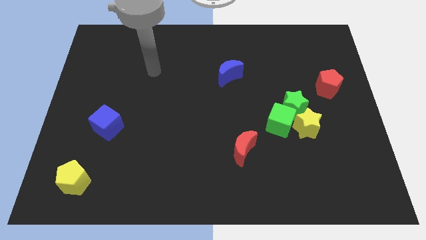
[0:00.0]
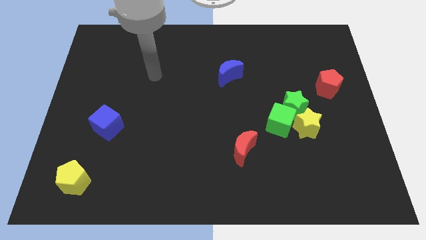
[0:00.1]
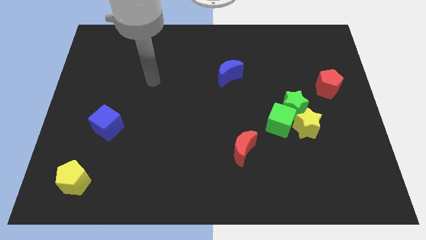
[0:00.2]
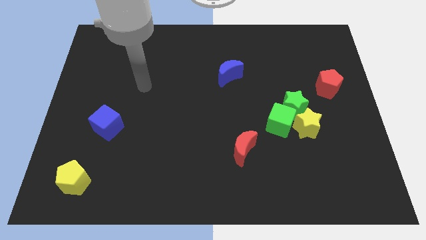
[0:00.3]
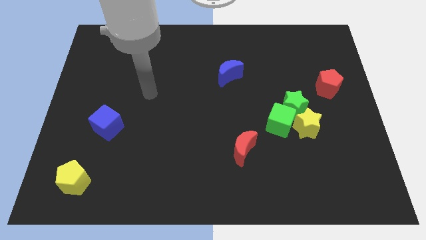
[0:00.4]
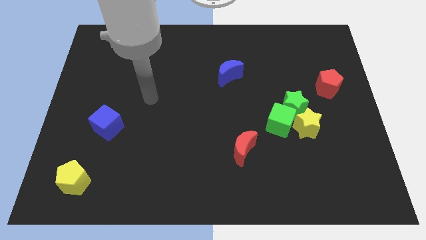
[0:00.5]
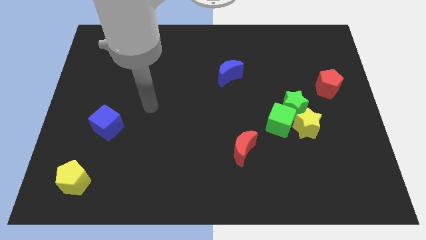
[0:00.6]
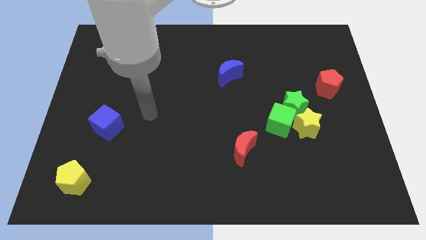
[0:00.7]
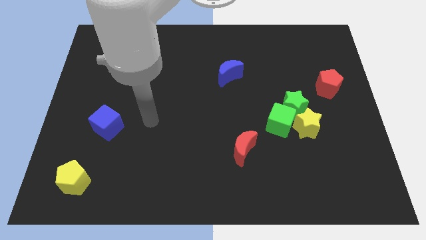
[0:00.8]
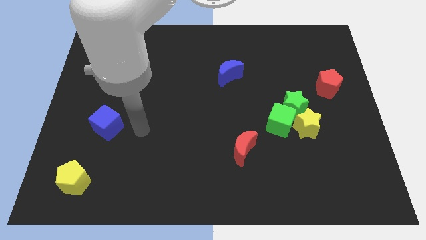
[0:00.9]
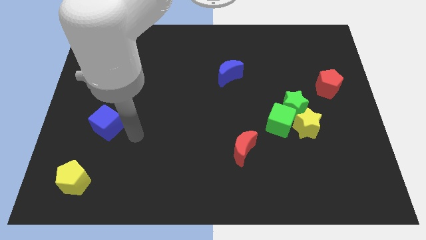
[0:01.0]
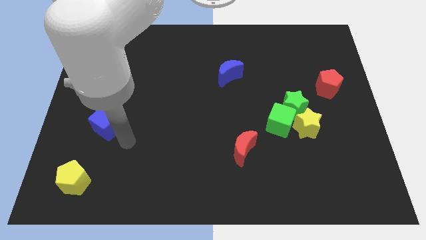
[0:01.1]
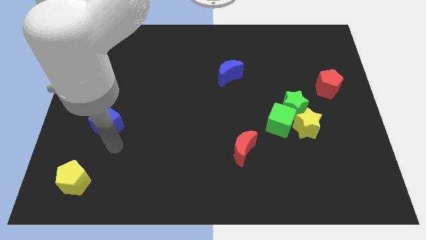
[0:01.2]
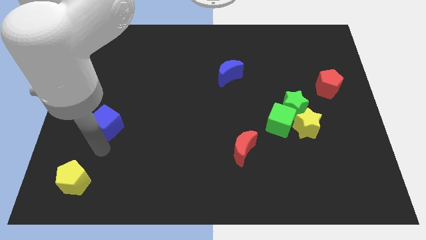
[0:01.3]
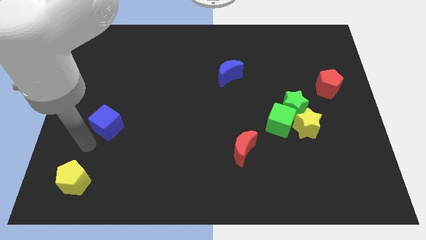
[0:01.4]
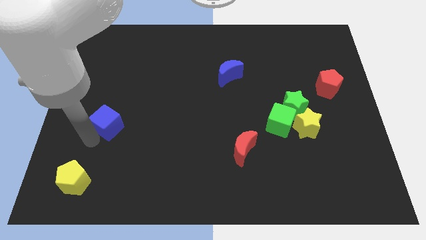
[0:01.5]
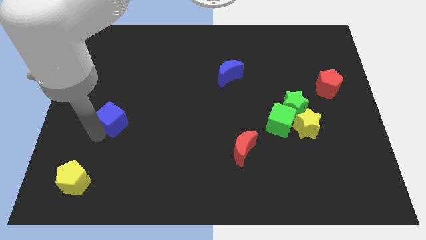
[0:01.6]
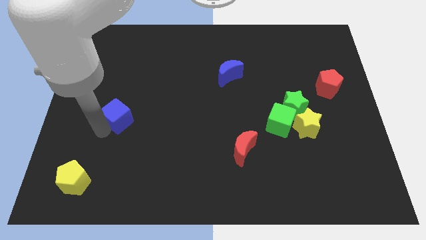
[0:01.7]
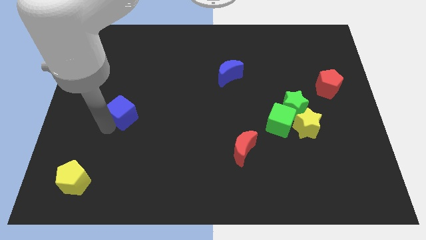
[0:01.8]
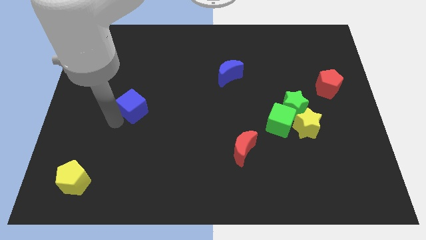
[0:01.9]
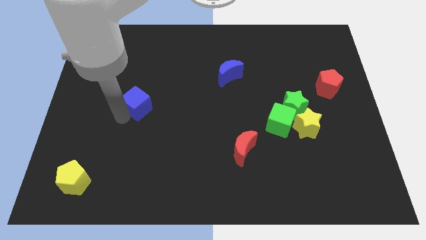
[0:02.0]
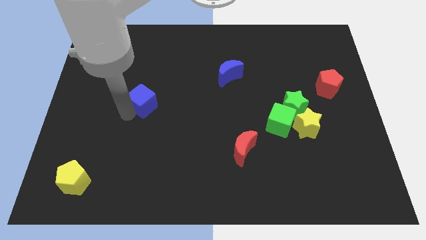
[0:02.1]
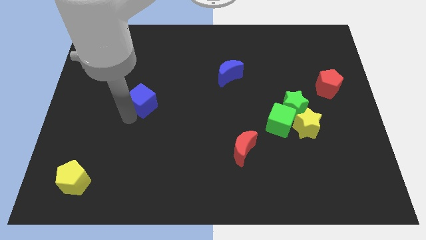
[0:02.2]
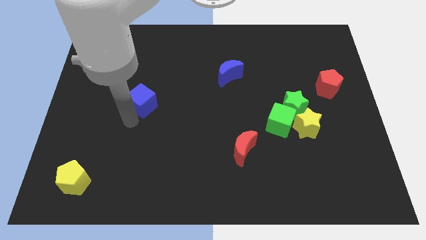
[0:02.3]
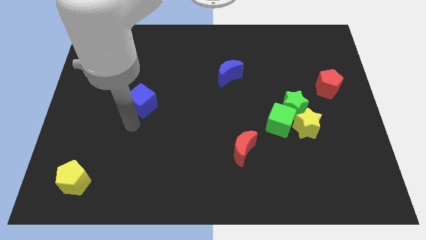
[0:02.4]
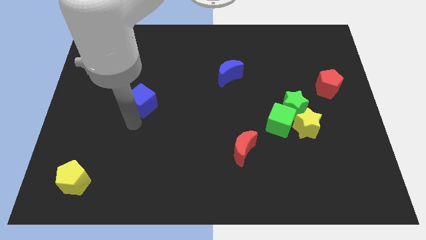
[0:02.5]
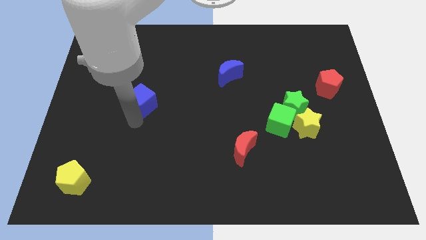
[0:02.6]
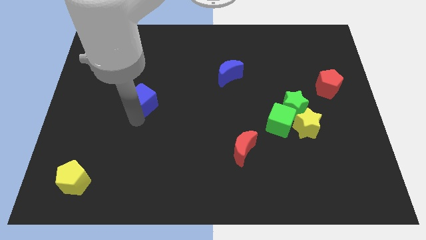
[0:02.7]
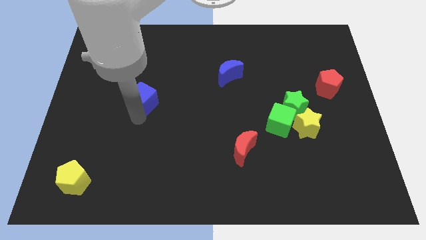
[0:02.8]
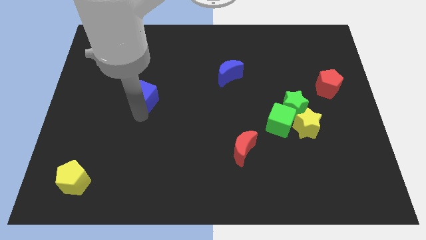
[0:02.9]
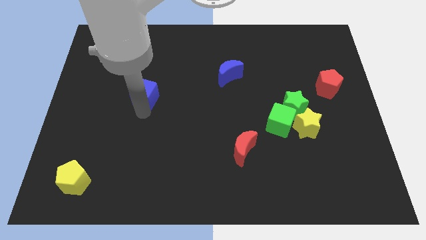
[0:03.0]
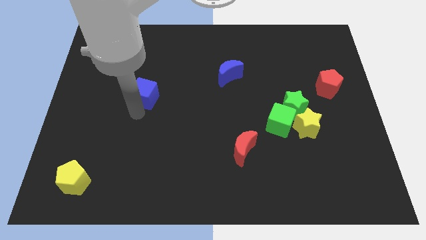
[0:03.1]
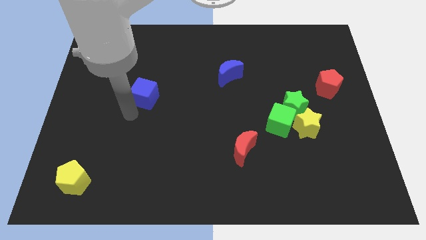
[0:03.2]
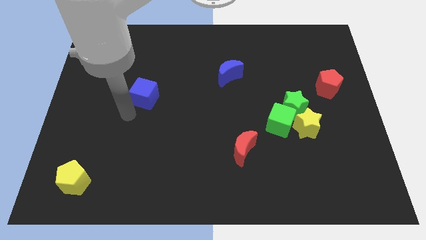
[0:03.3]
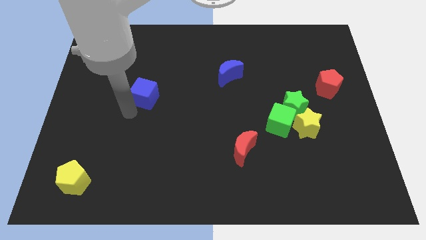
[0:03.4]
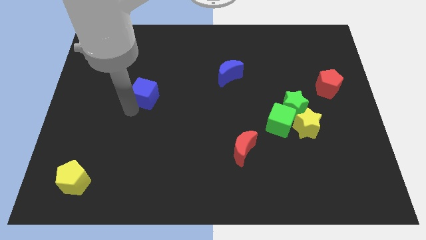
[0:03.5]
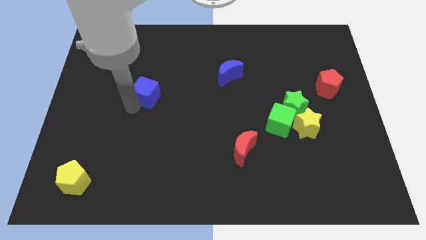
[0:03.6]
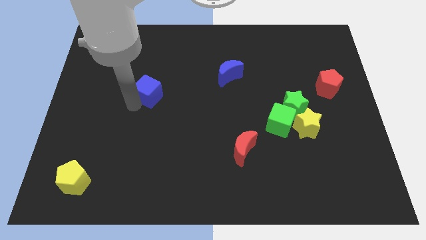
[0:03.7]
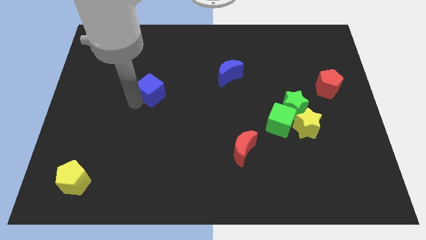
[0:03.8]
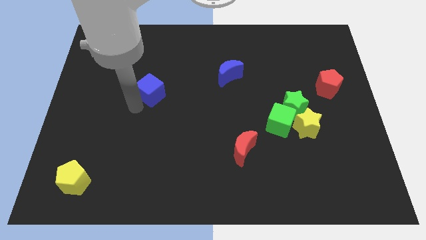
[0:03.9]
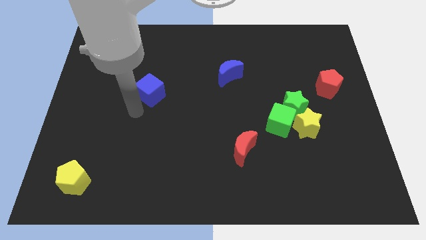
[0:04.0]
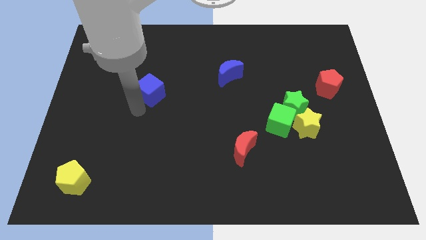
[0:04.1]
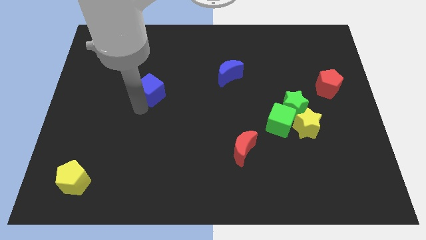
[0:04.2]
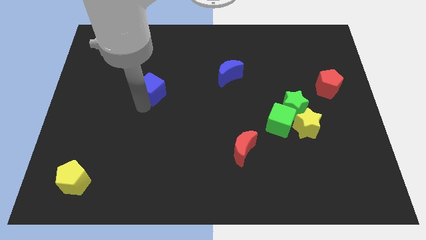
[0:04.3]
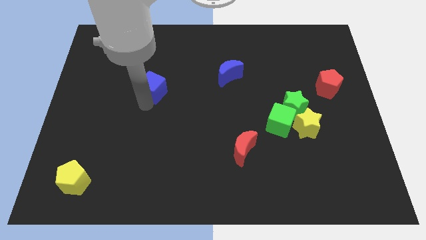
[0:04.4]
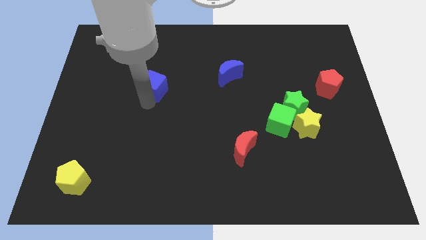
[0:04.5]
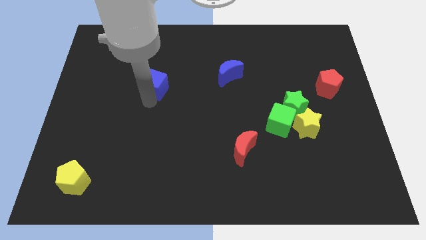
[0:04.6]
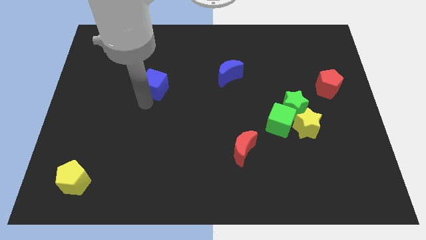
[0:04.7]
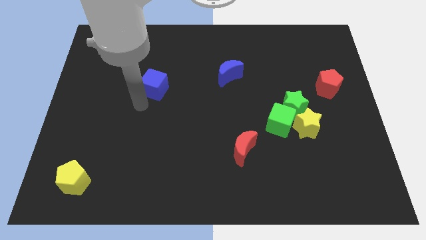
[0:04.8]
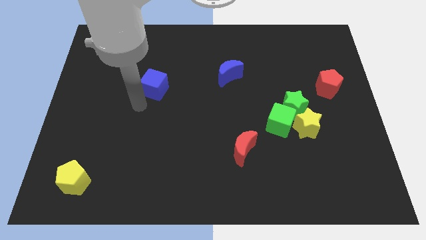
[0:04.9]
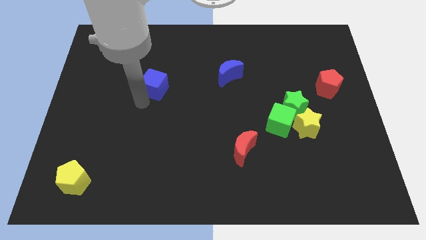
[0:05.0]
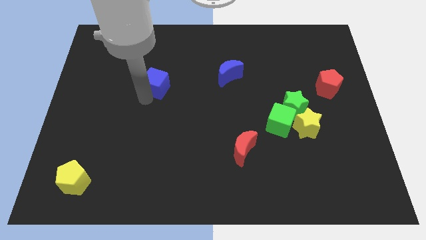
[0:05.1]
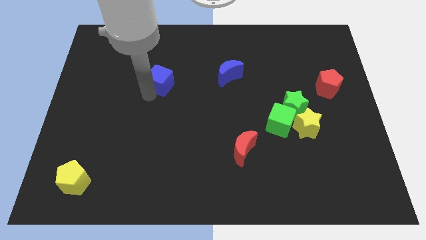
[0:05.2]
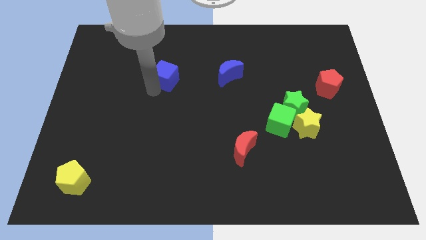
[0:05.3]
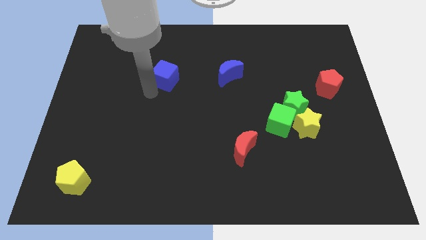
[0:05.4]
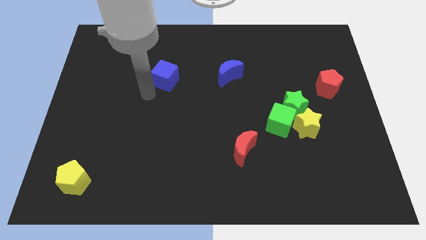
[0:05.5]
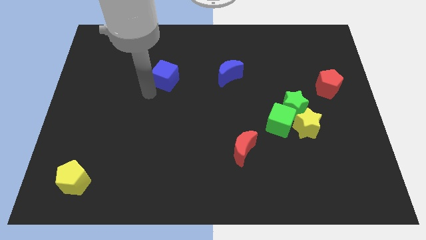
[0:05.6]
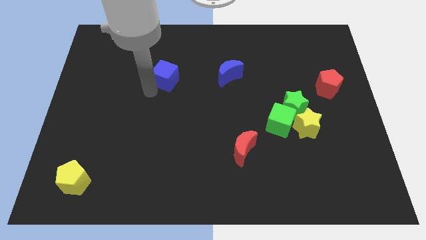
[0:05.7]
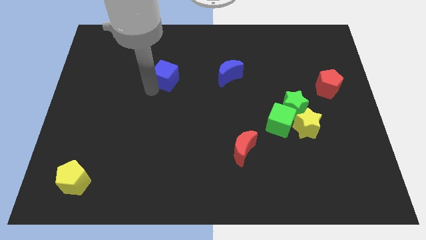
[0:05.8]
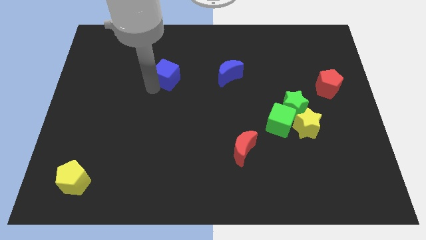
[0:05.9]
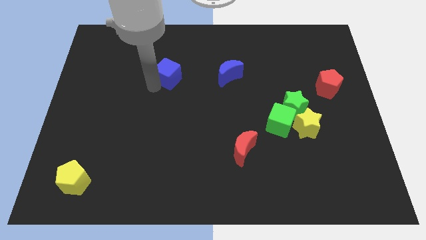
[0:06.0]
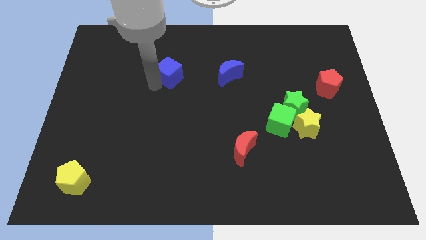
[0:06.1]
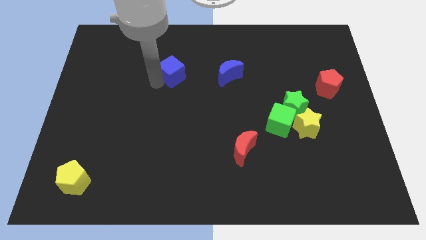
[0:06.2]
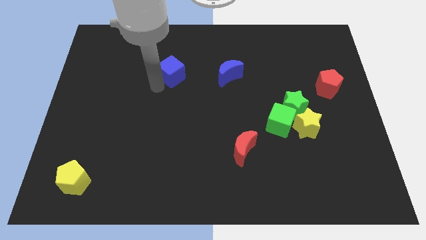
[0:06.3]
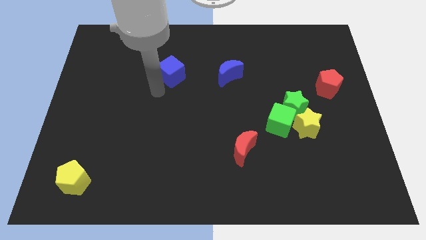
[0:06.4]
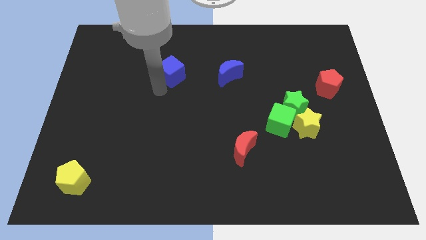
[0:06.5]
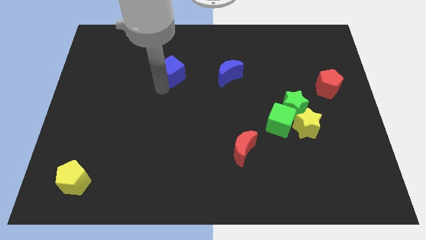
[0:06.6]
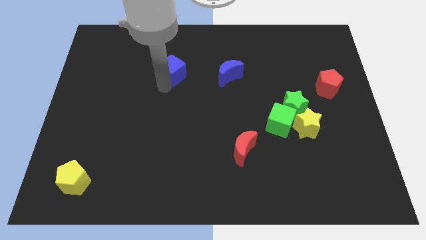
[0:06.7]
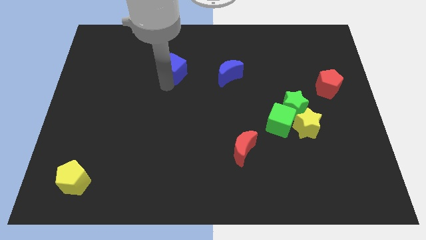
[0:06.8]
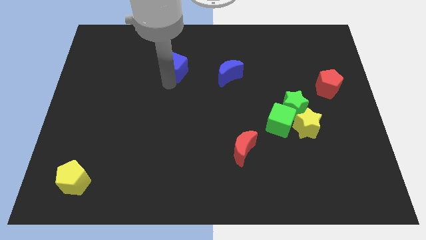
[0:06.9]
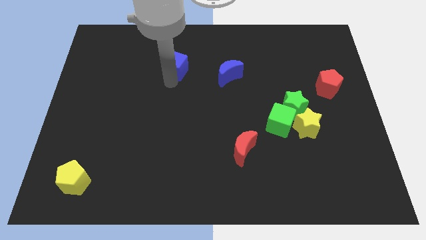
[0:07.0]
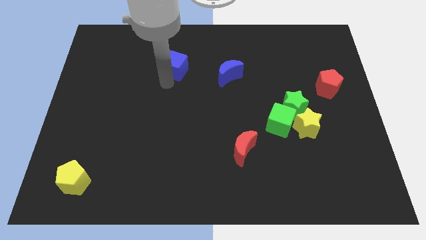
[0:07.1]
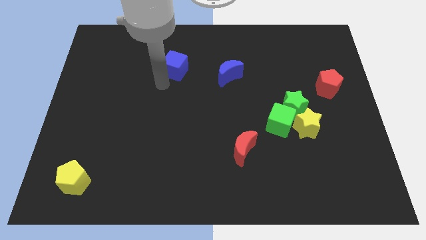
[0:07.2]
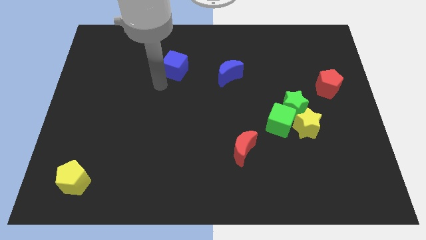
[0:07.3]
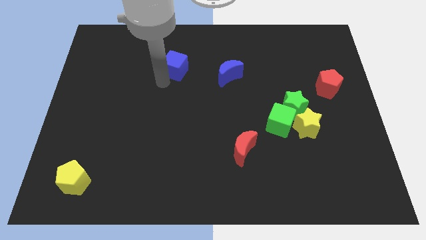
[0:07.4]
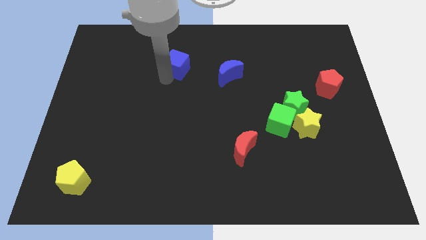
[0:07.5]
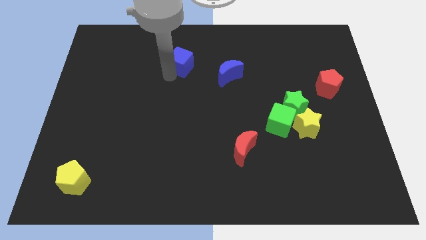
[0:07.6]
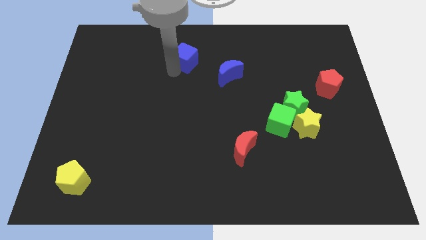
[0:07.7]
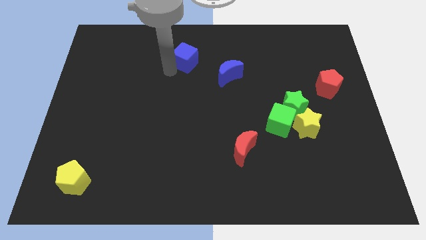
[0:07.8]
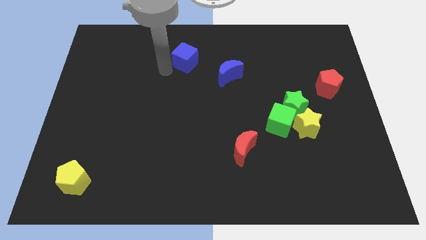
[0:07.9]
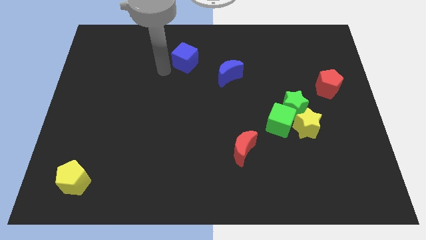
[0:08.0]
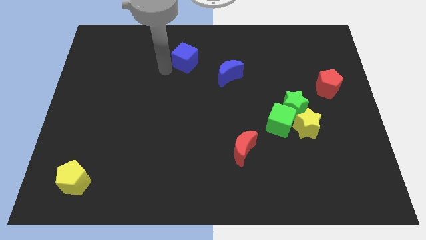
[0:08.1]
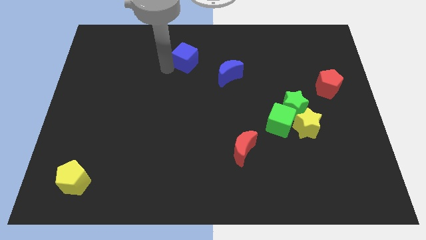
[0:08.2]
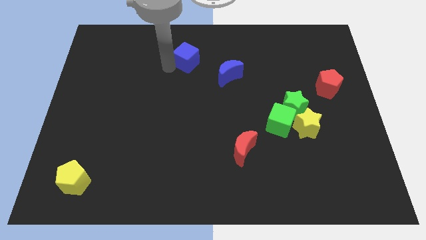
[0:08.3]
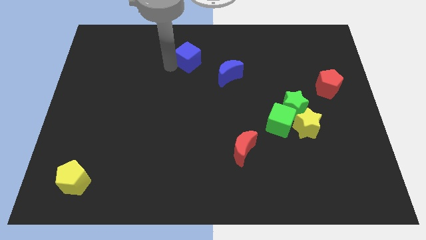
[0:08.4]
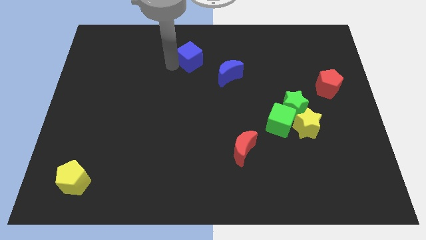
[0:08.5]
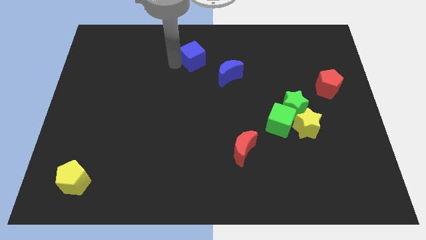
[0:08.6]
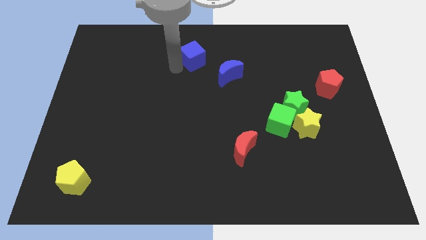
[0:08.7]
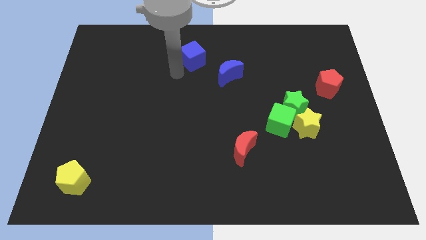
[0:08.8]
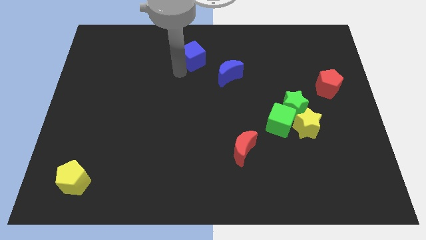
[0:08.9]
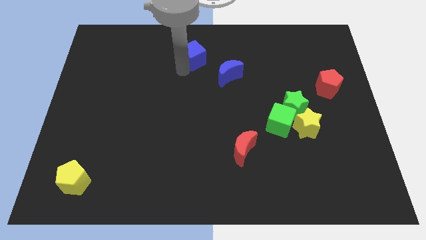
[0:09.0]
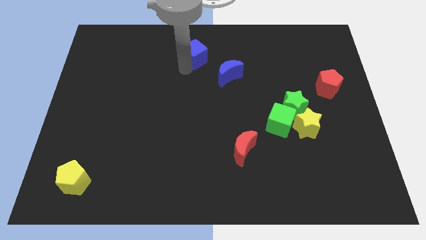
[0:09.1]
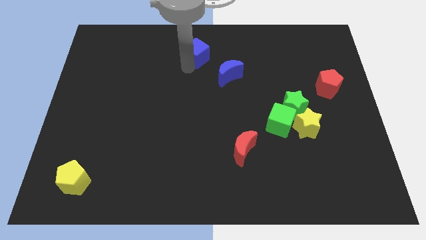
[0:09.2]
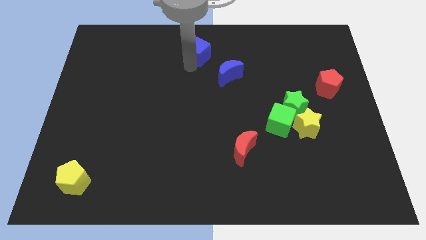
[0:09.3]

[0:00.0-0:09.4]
put the blue cube to the towards your base
